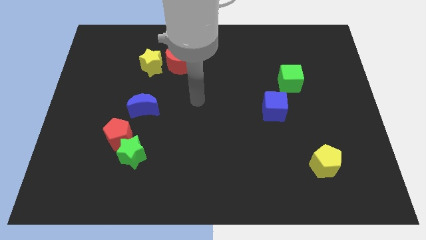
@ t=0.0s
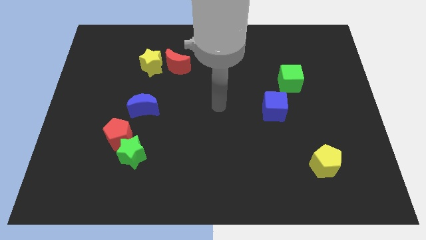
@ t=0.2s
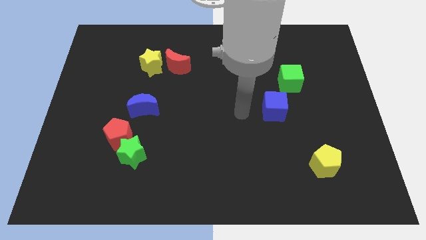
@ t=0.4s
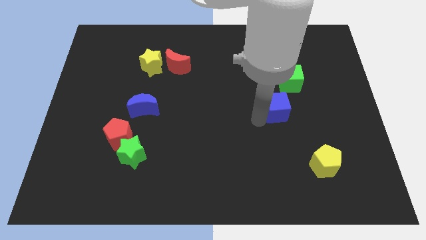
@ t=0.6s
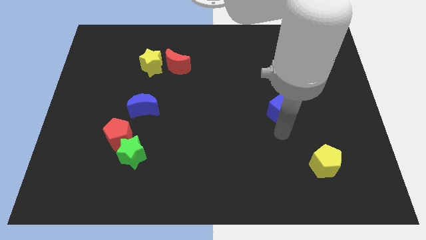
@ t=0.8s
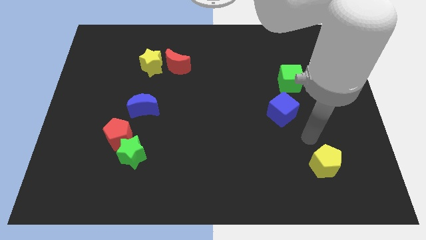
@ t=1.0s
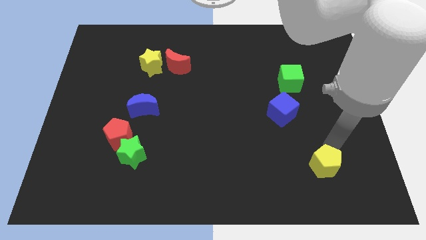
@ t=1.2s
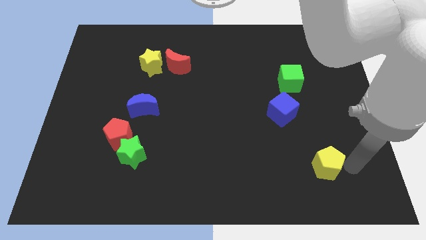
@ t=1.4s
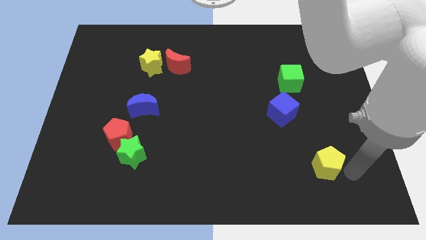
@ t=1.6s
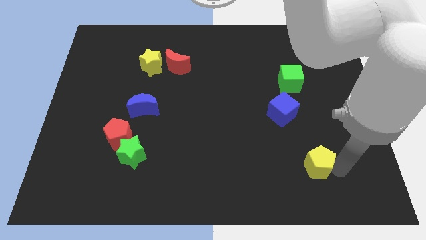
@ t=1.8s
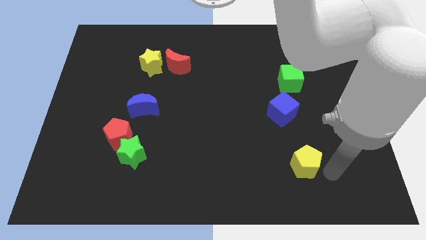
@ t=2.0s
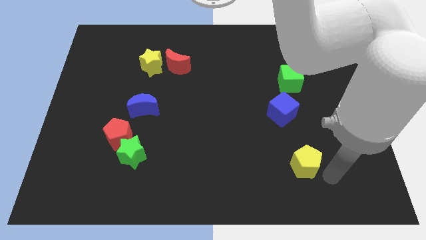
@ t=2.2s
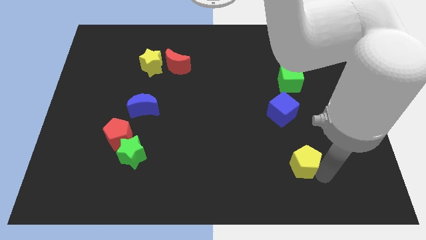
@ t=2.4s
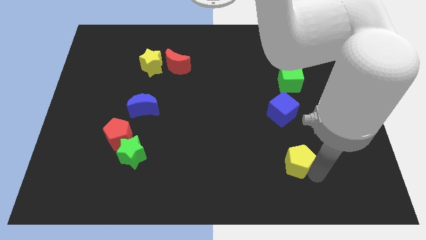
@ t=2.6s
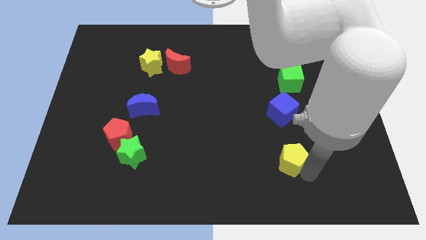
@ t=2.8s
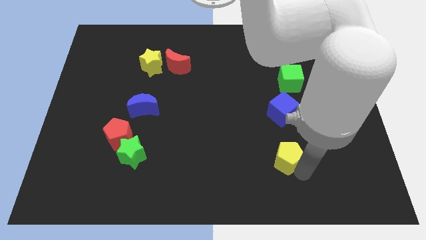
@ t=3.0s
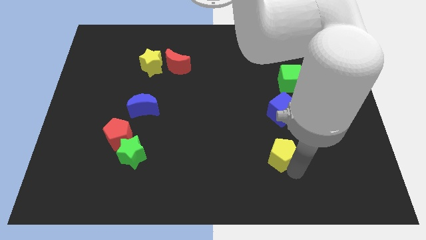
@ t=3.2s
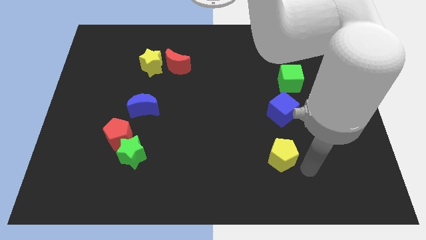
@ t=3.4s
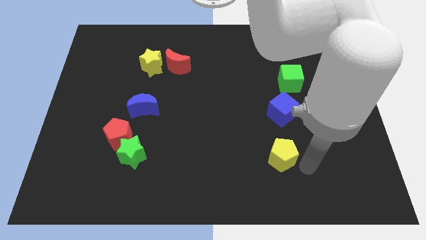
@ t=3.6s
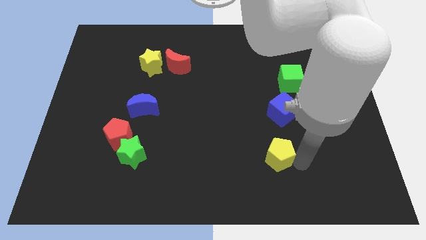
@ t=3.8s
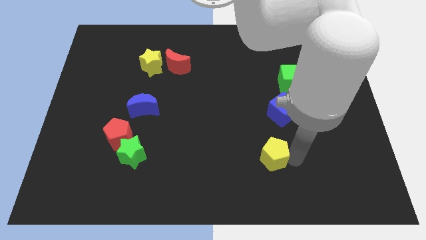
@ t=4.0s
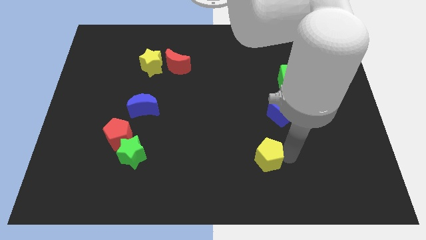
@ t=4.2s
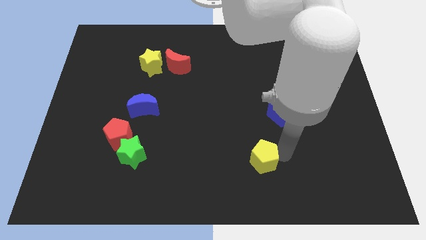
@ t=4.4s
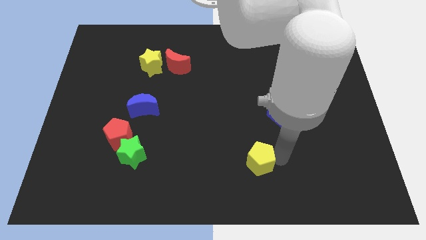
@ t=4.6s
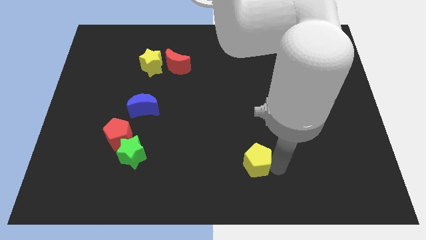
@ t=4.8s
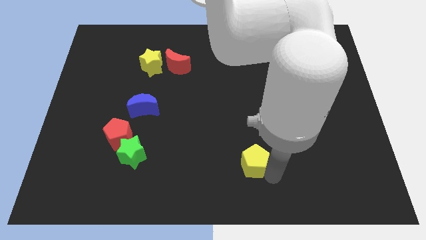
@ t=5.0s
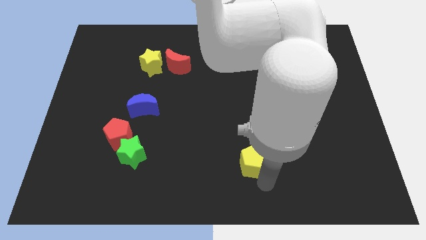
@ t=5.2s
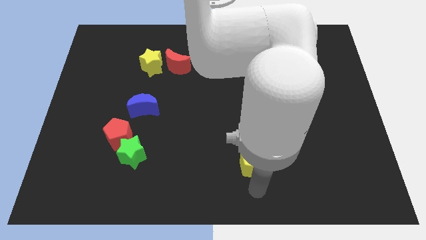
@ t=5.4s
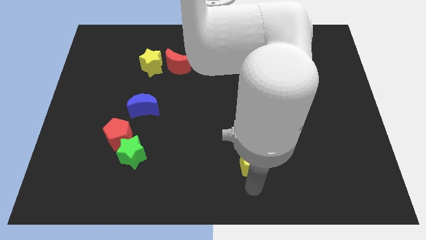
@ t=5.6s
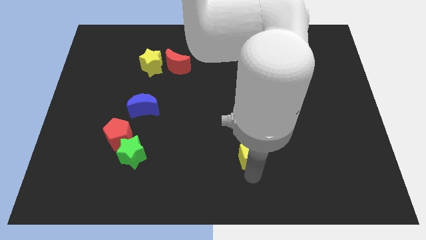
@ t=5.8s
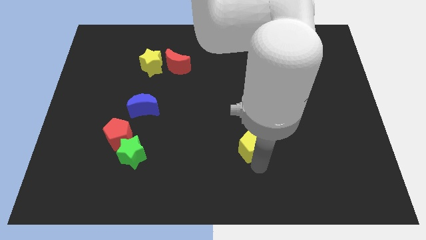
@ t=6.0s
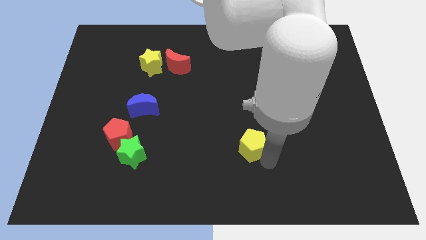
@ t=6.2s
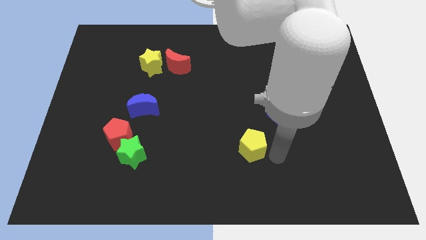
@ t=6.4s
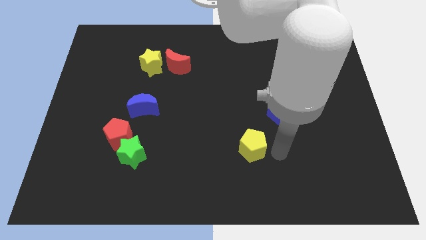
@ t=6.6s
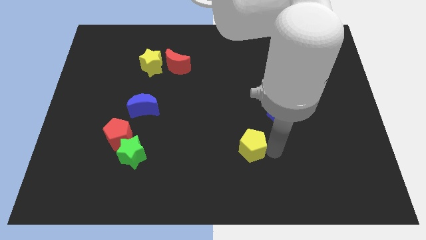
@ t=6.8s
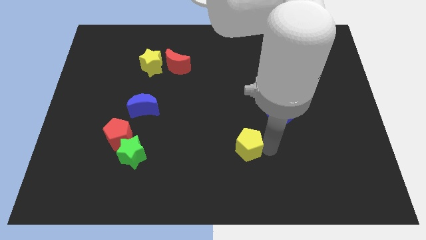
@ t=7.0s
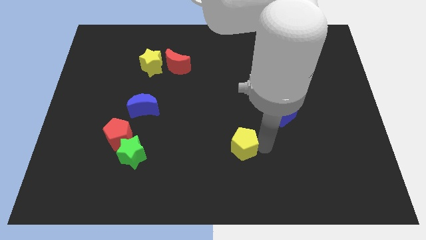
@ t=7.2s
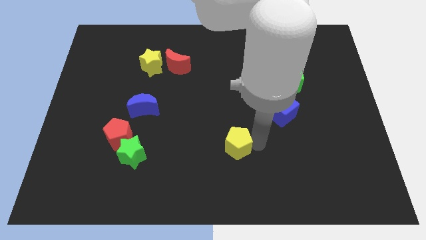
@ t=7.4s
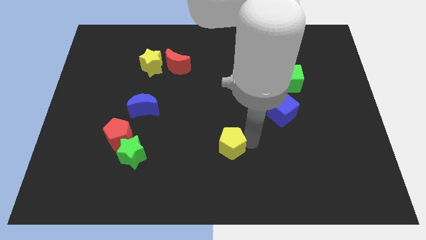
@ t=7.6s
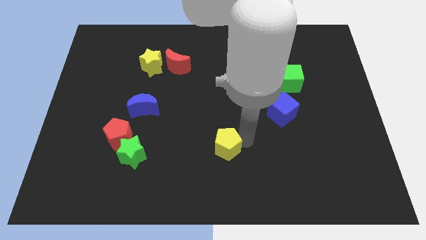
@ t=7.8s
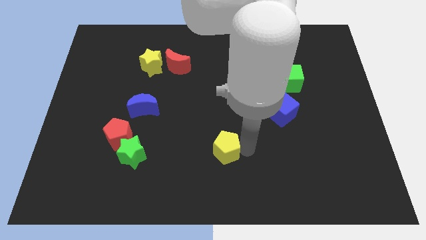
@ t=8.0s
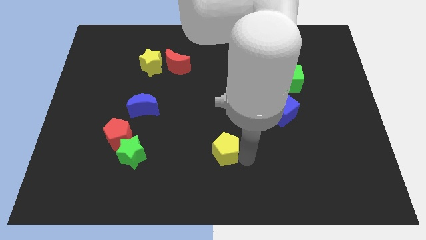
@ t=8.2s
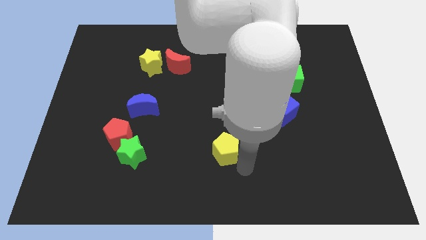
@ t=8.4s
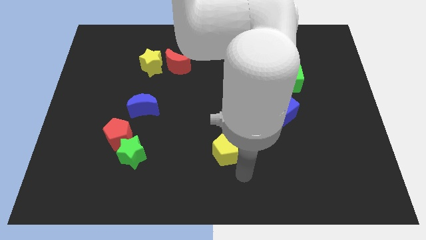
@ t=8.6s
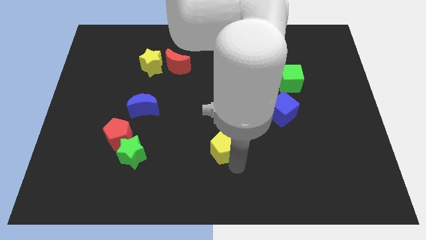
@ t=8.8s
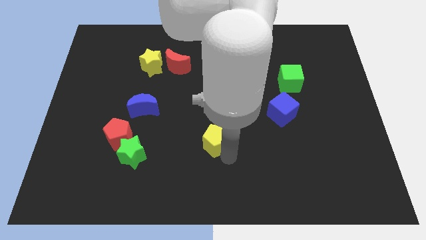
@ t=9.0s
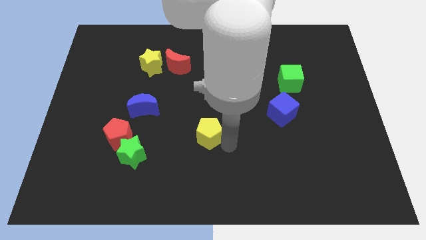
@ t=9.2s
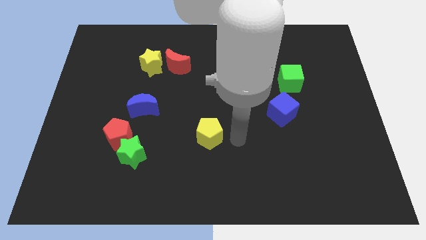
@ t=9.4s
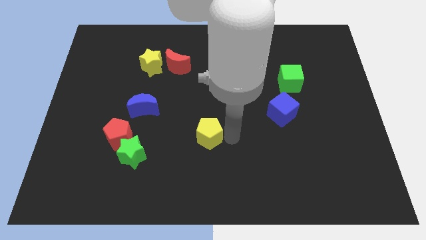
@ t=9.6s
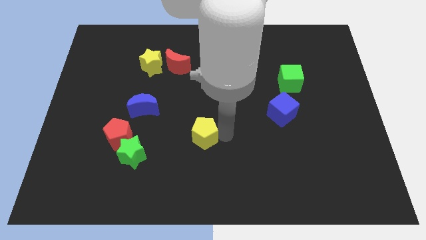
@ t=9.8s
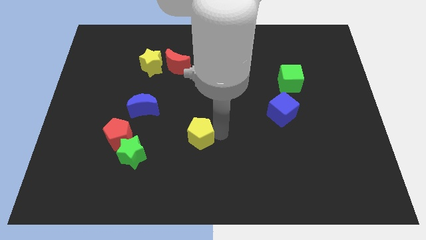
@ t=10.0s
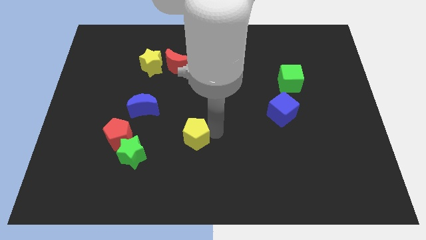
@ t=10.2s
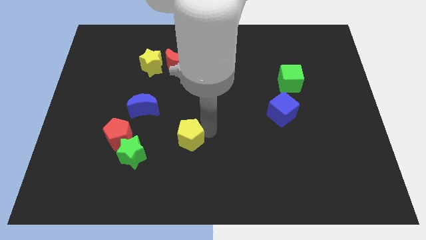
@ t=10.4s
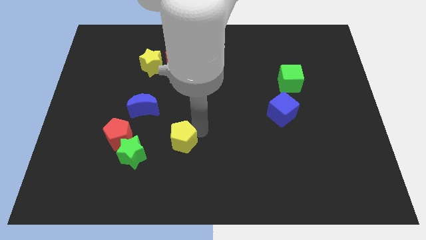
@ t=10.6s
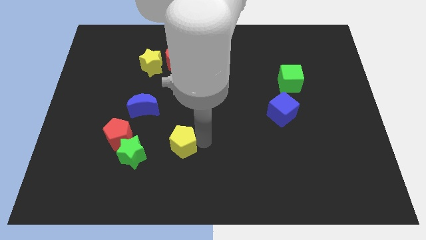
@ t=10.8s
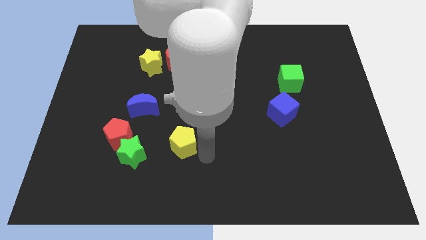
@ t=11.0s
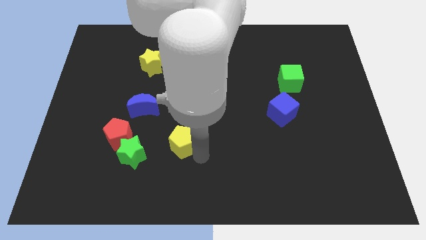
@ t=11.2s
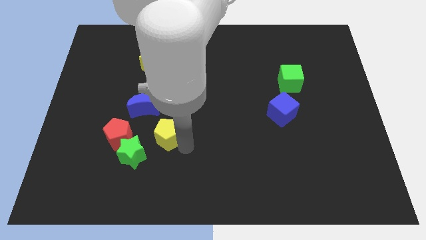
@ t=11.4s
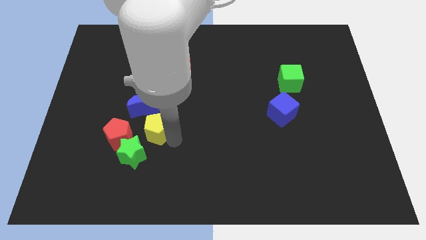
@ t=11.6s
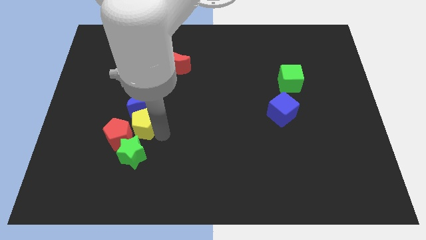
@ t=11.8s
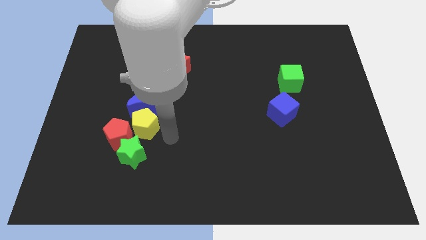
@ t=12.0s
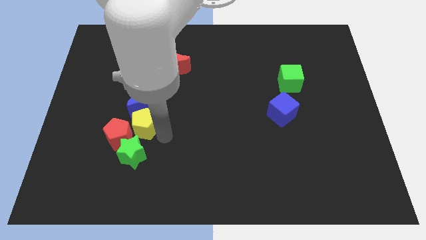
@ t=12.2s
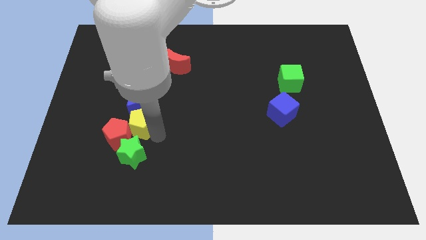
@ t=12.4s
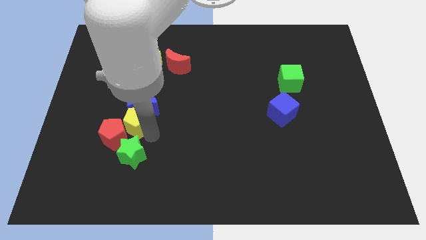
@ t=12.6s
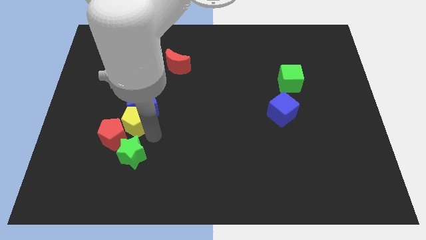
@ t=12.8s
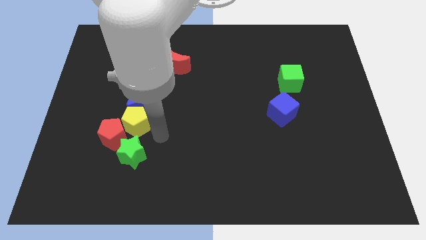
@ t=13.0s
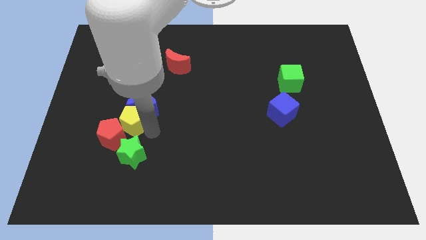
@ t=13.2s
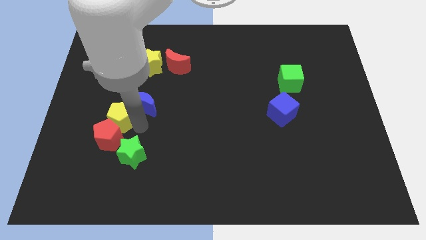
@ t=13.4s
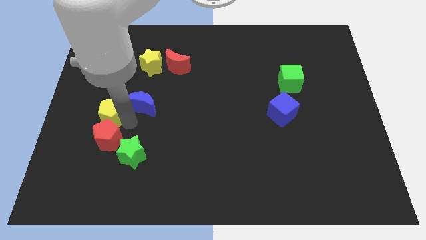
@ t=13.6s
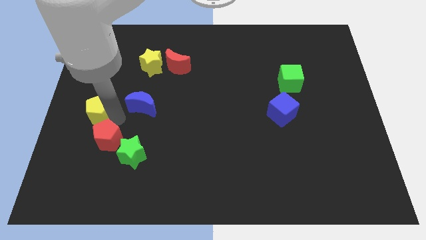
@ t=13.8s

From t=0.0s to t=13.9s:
put the yellow pentagon to the center left
